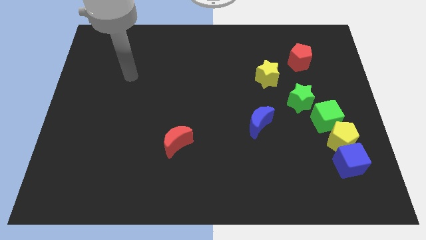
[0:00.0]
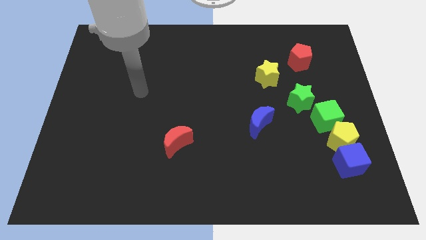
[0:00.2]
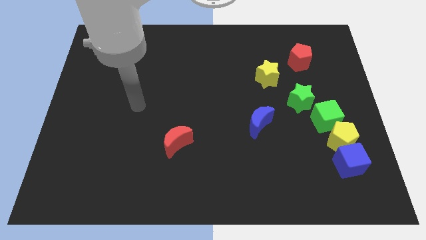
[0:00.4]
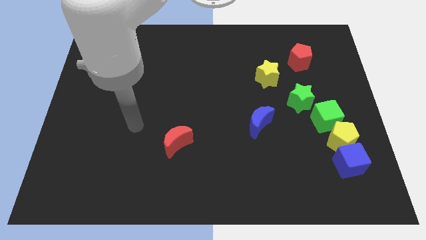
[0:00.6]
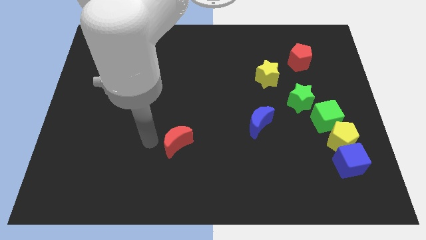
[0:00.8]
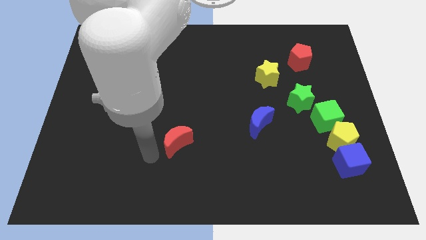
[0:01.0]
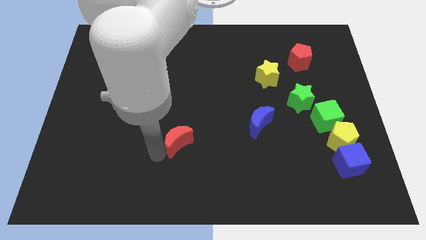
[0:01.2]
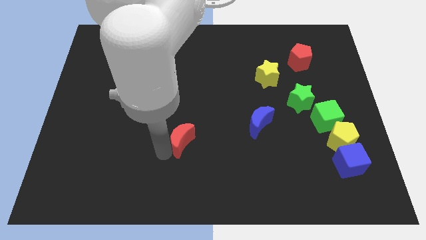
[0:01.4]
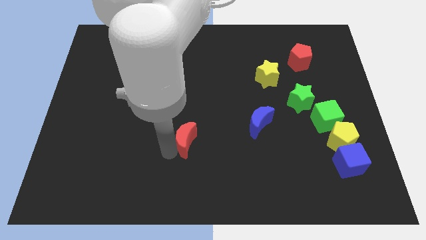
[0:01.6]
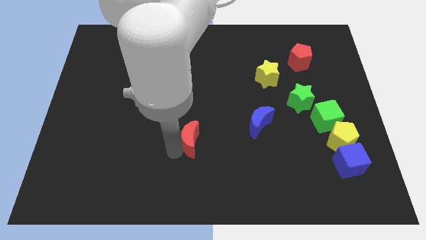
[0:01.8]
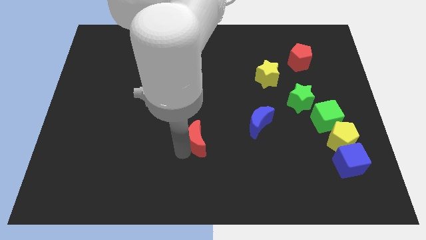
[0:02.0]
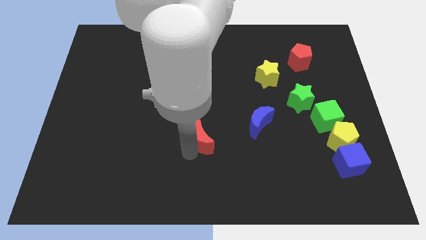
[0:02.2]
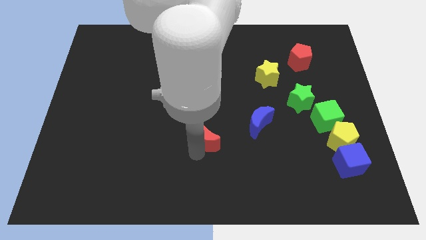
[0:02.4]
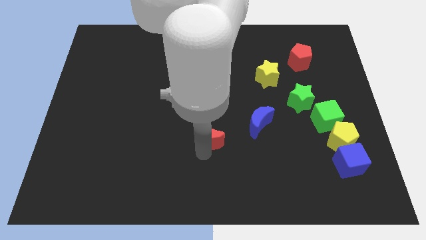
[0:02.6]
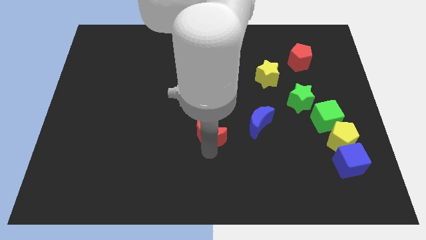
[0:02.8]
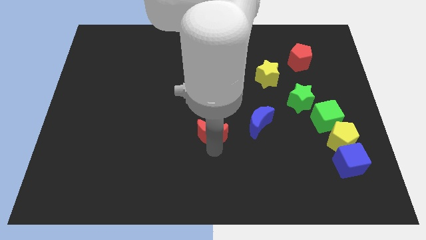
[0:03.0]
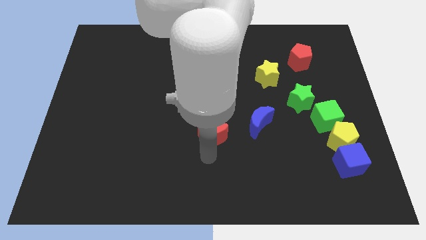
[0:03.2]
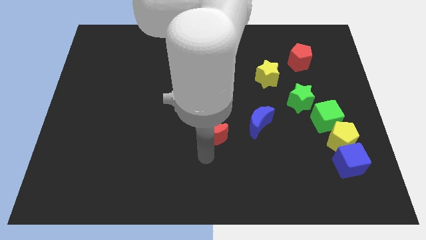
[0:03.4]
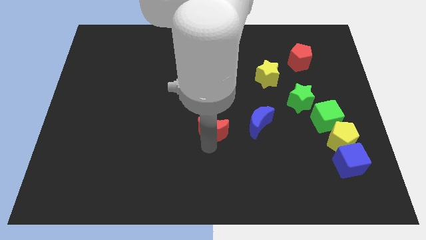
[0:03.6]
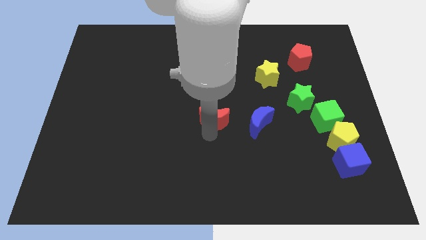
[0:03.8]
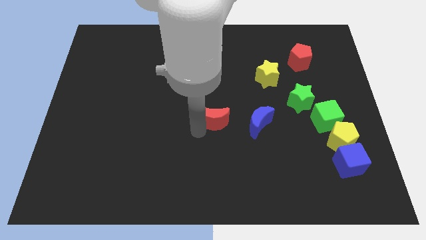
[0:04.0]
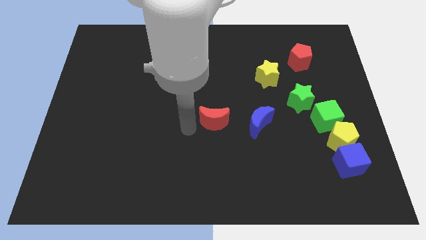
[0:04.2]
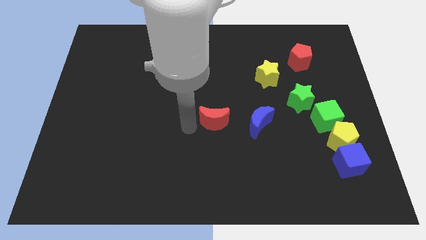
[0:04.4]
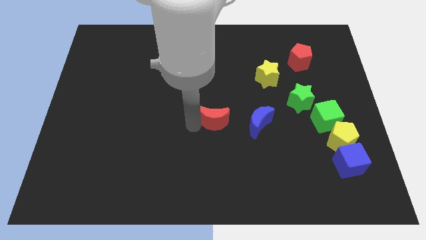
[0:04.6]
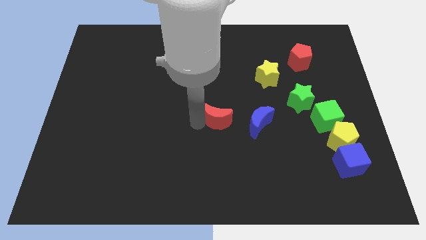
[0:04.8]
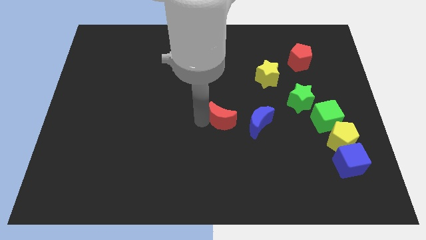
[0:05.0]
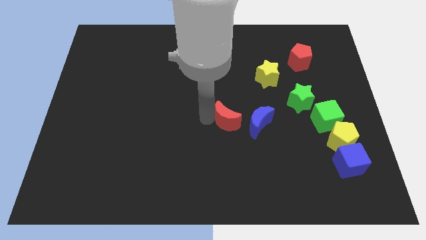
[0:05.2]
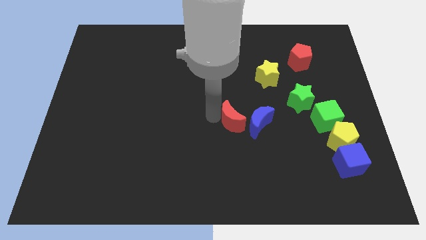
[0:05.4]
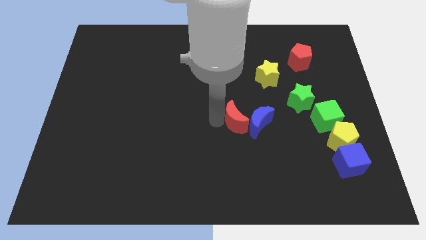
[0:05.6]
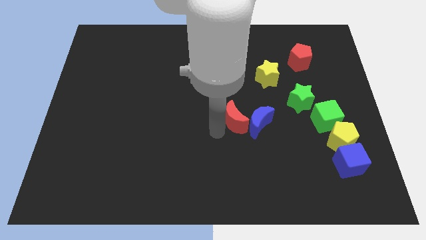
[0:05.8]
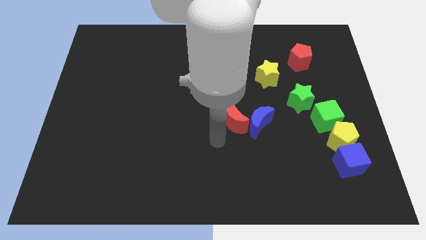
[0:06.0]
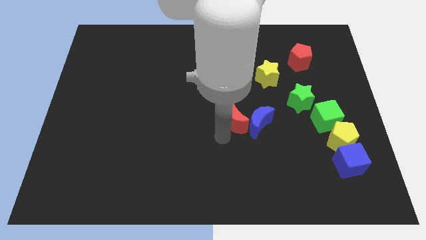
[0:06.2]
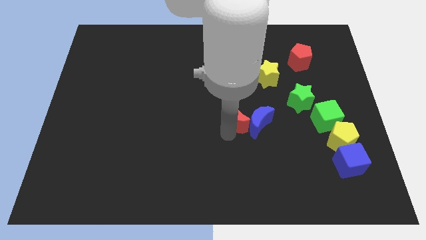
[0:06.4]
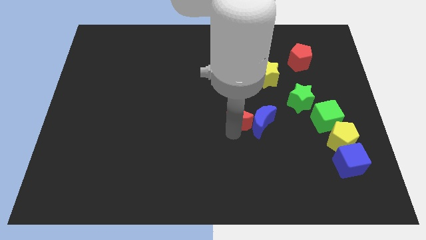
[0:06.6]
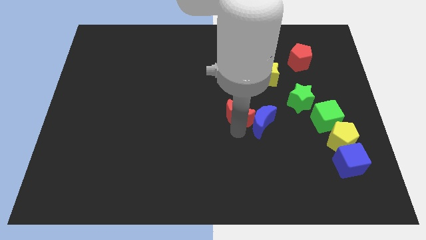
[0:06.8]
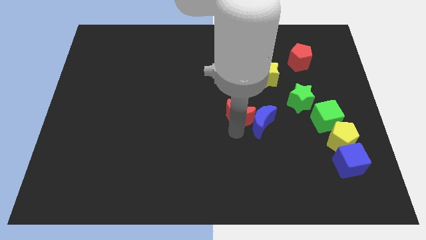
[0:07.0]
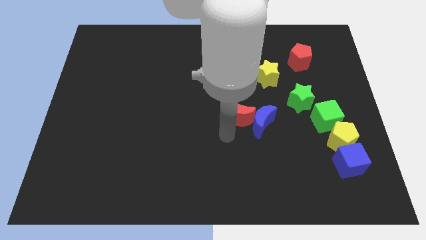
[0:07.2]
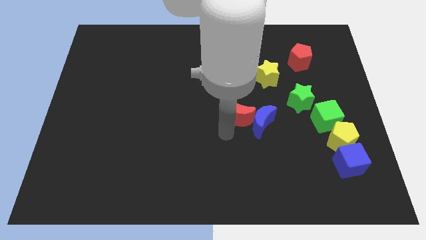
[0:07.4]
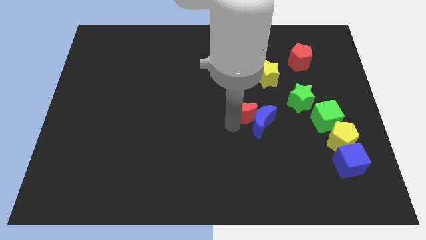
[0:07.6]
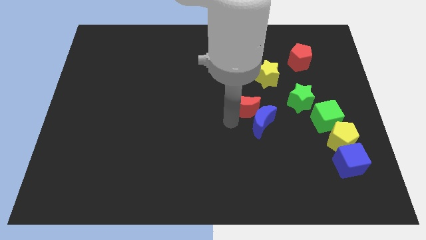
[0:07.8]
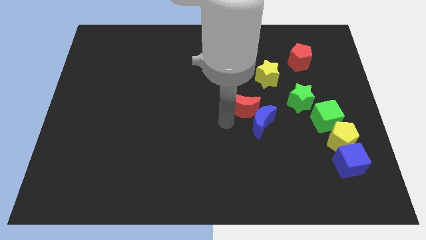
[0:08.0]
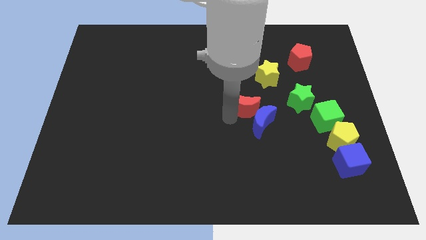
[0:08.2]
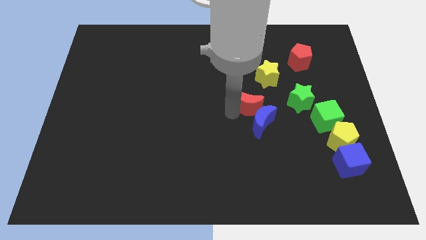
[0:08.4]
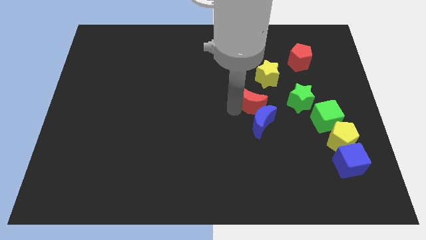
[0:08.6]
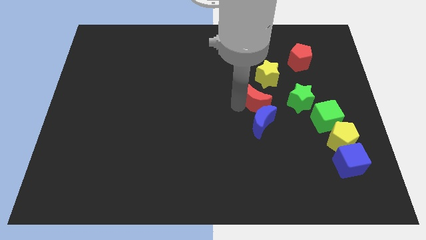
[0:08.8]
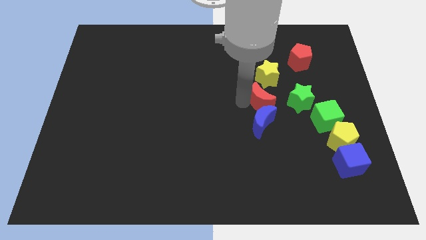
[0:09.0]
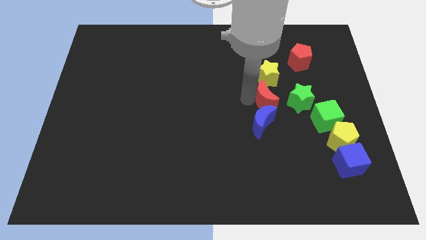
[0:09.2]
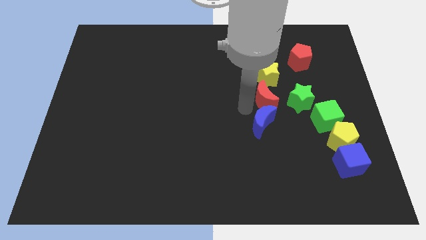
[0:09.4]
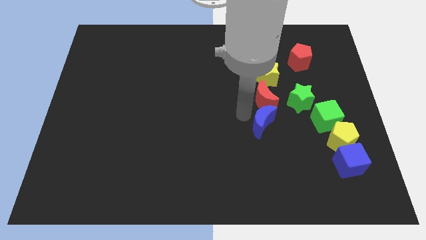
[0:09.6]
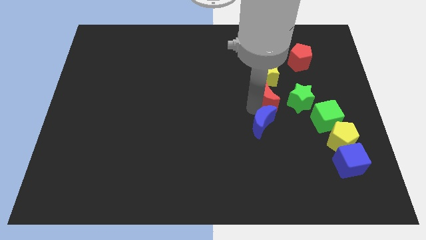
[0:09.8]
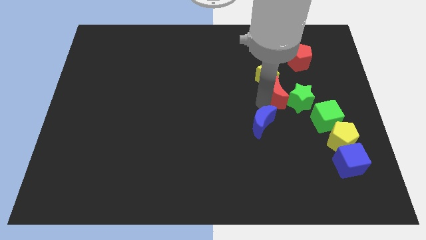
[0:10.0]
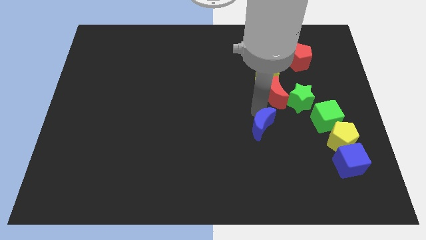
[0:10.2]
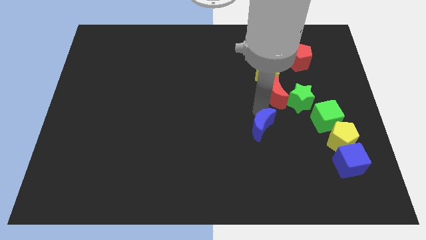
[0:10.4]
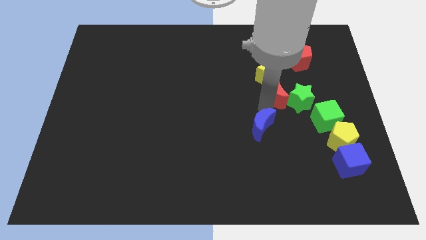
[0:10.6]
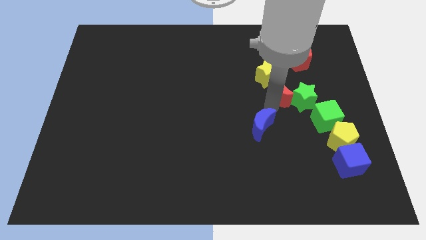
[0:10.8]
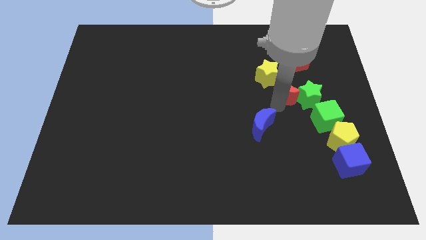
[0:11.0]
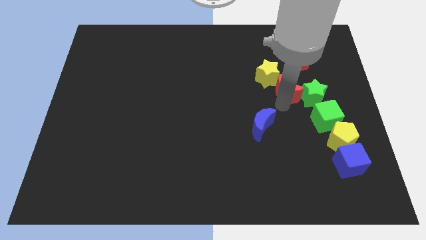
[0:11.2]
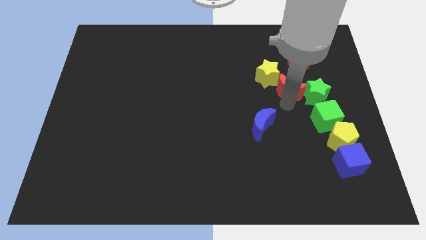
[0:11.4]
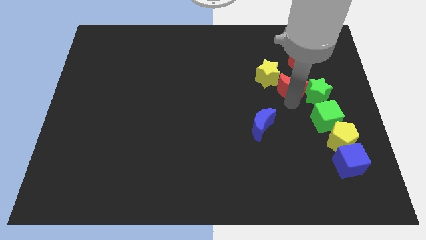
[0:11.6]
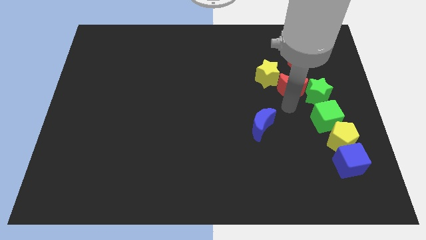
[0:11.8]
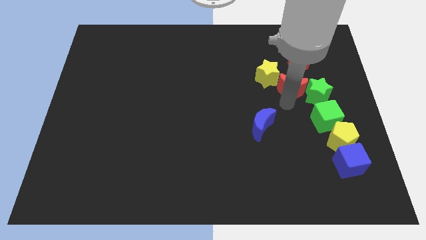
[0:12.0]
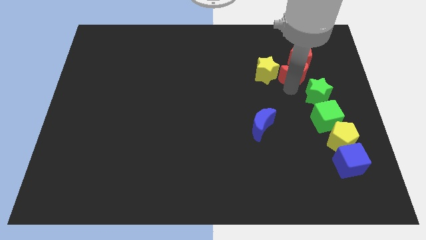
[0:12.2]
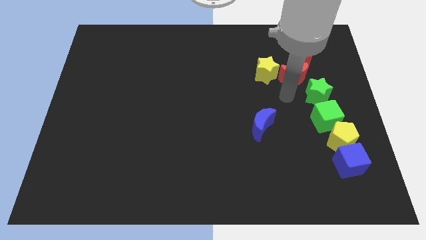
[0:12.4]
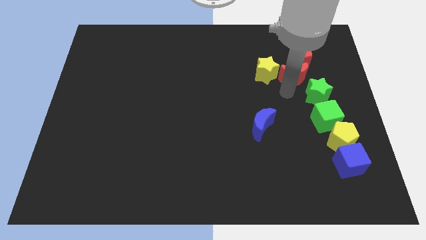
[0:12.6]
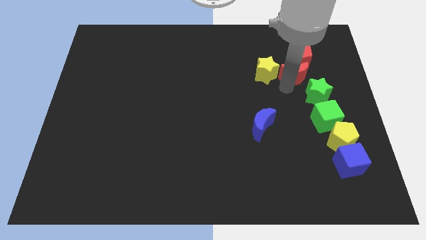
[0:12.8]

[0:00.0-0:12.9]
move the red moon to the red pentagon

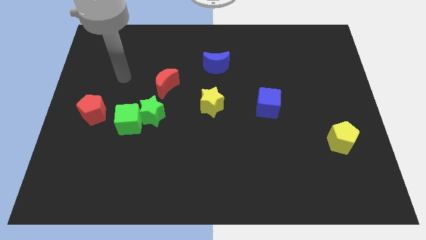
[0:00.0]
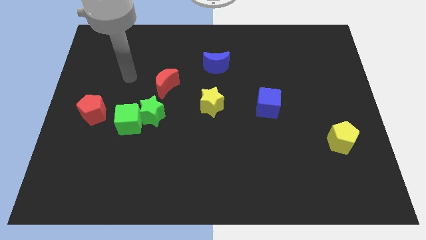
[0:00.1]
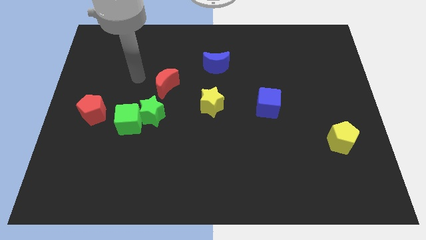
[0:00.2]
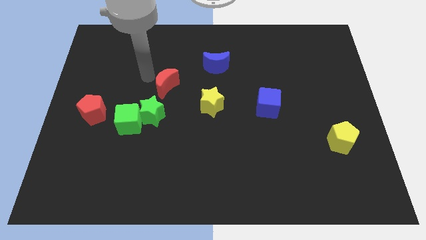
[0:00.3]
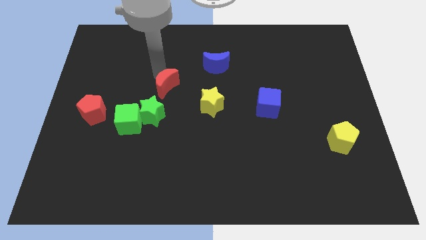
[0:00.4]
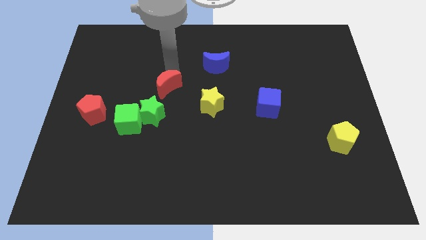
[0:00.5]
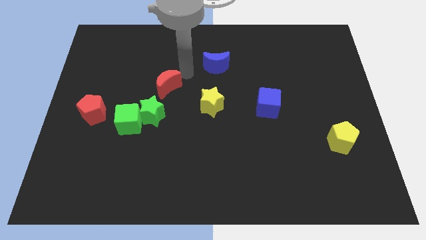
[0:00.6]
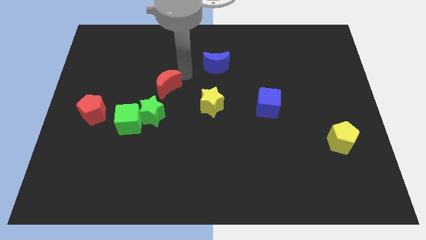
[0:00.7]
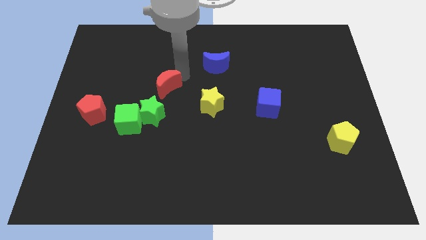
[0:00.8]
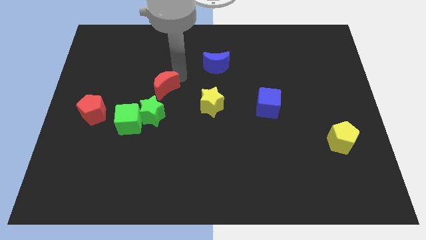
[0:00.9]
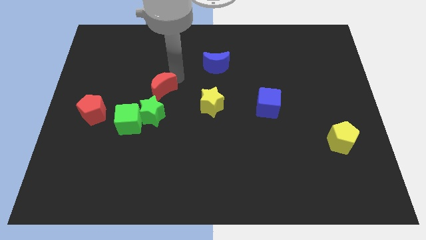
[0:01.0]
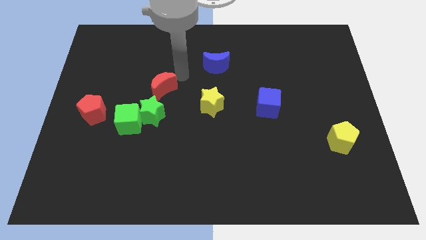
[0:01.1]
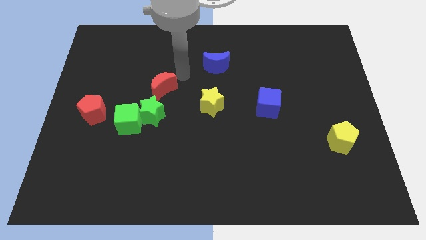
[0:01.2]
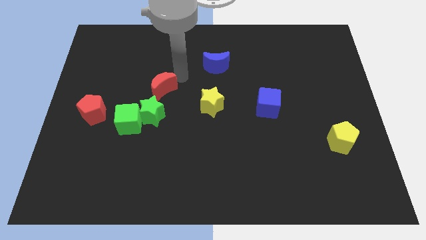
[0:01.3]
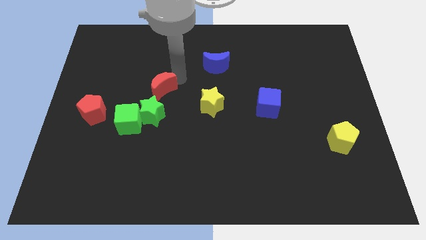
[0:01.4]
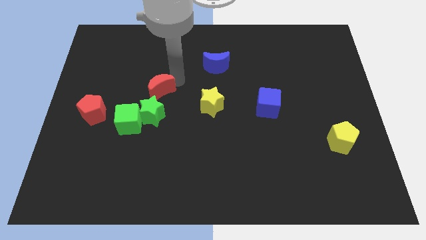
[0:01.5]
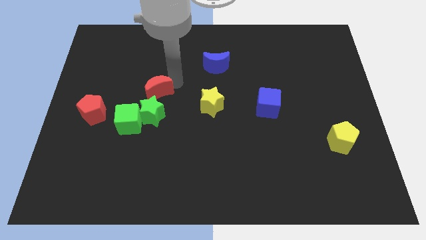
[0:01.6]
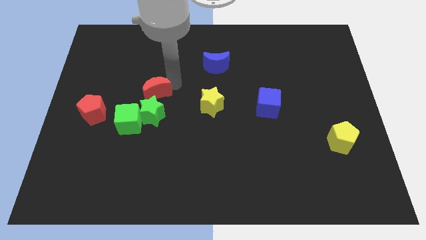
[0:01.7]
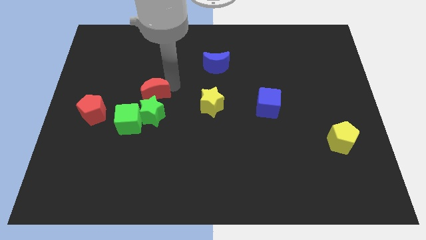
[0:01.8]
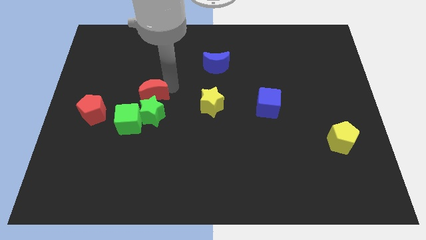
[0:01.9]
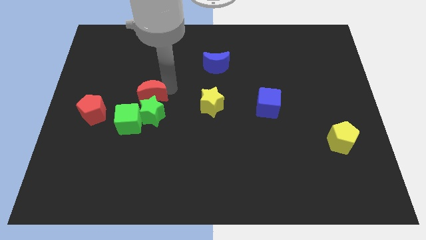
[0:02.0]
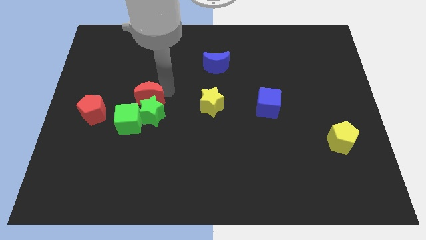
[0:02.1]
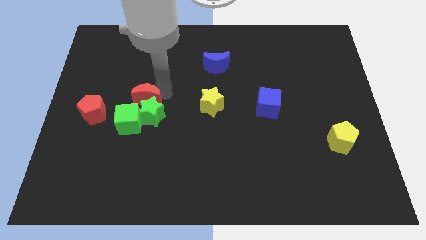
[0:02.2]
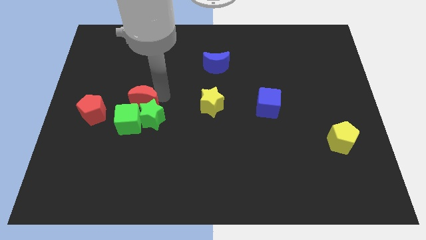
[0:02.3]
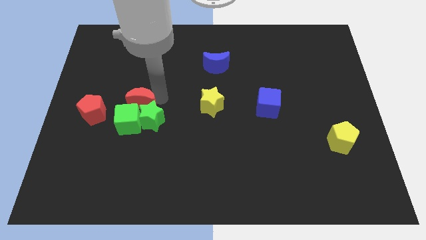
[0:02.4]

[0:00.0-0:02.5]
push the red moon next to the green cube
